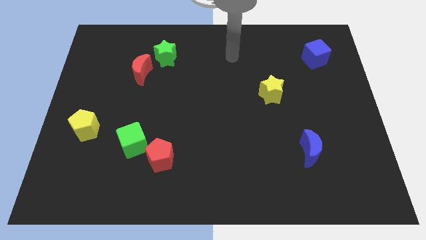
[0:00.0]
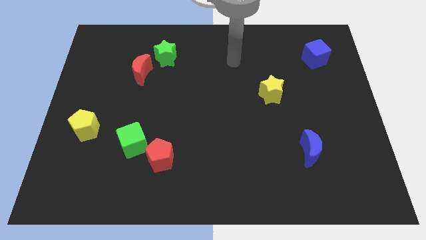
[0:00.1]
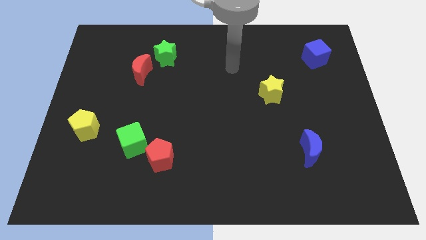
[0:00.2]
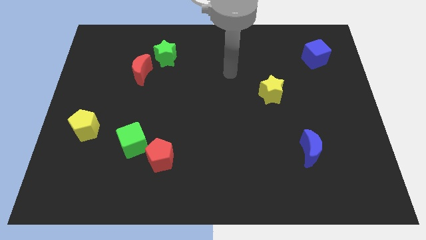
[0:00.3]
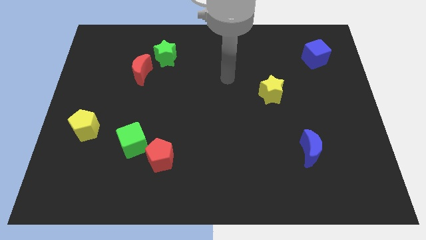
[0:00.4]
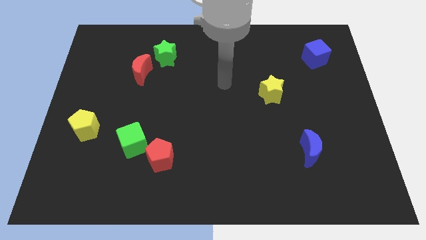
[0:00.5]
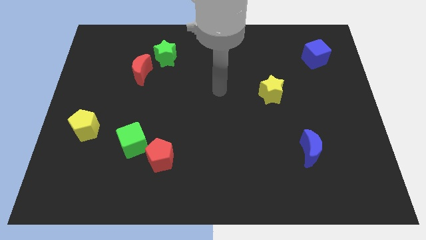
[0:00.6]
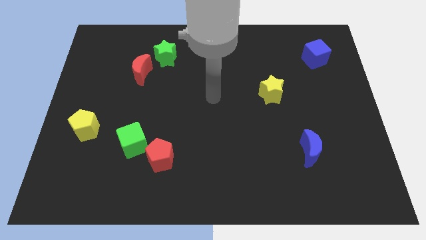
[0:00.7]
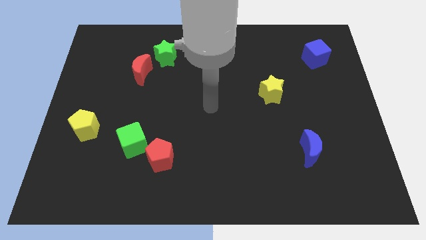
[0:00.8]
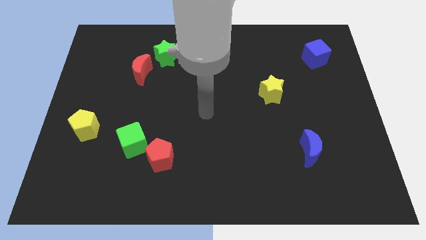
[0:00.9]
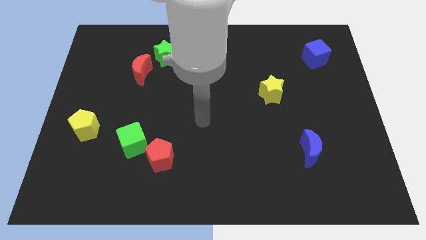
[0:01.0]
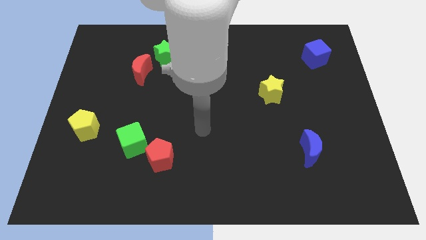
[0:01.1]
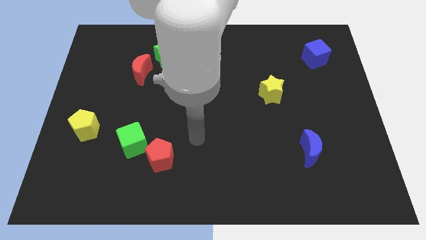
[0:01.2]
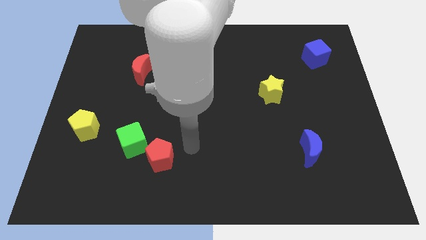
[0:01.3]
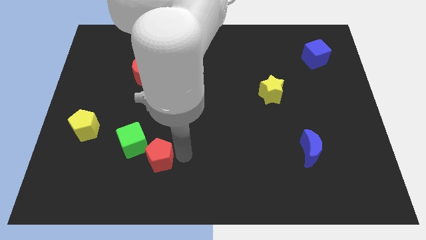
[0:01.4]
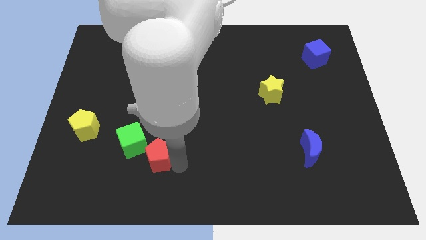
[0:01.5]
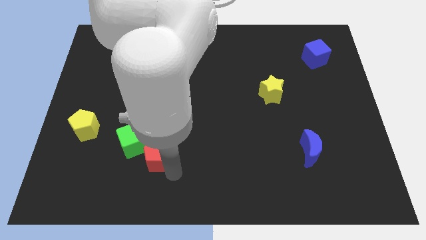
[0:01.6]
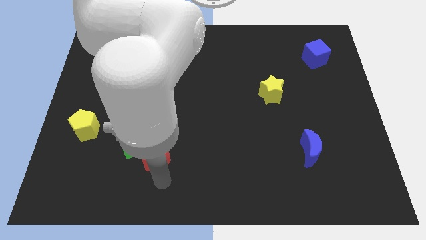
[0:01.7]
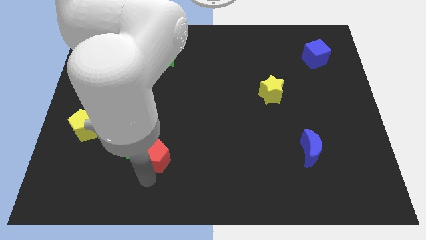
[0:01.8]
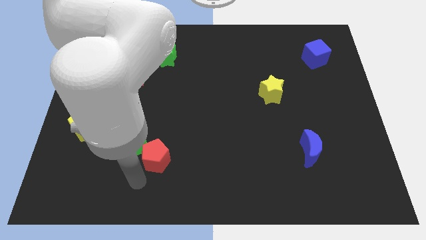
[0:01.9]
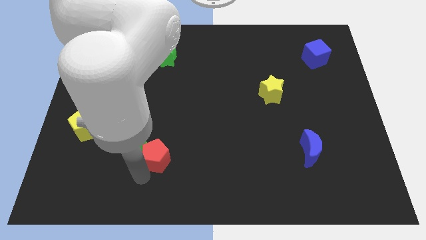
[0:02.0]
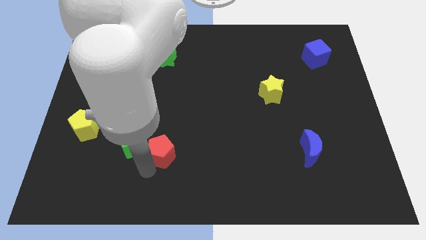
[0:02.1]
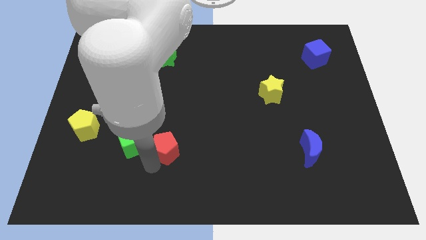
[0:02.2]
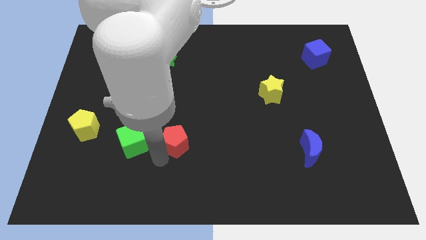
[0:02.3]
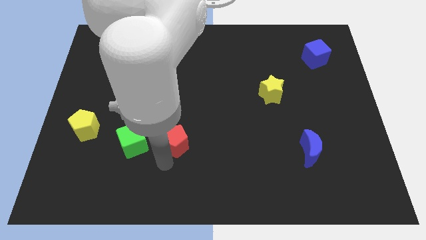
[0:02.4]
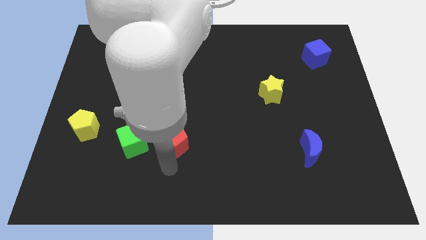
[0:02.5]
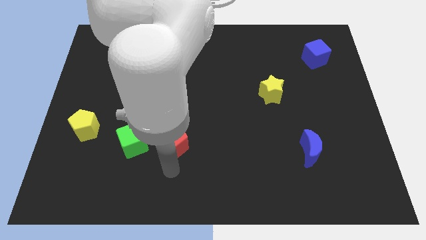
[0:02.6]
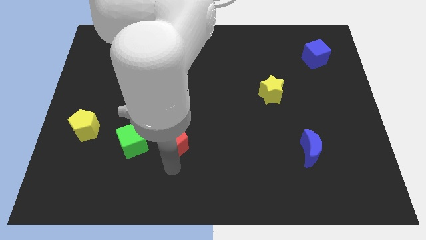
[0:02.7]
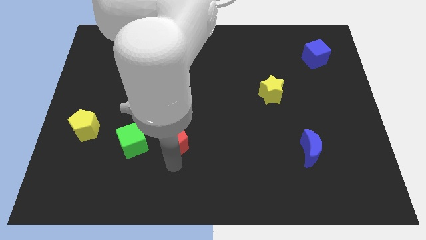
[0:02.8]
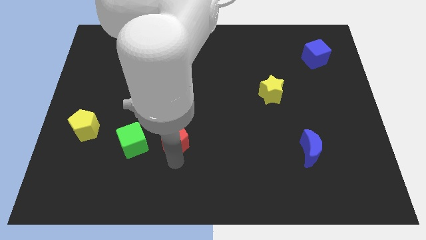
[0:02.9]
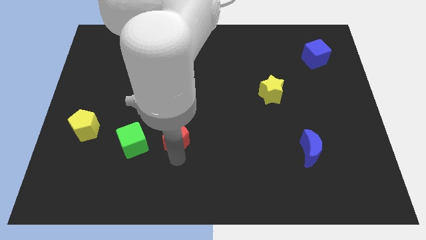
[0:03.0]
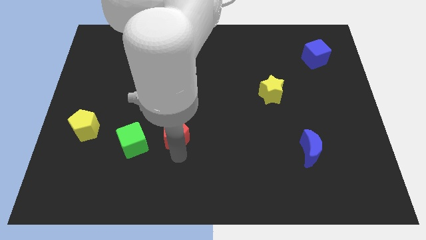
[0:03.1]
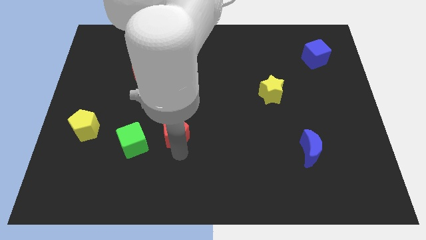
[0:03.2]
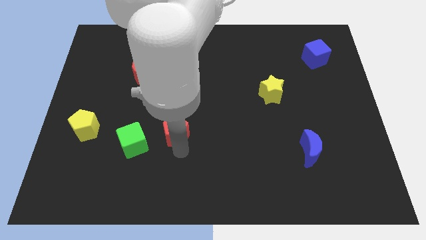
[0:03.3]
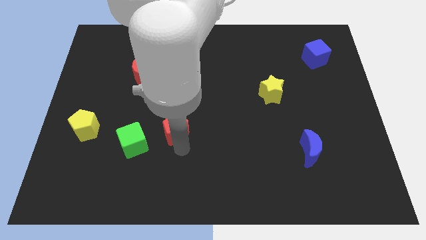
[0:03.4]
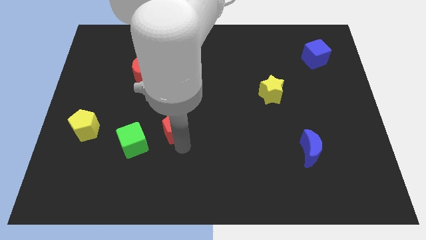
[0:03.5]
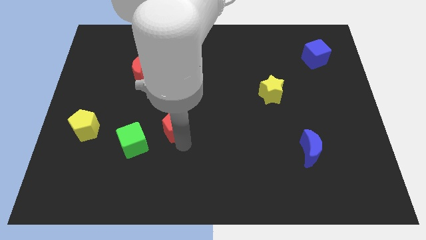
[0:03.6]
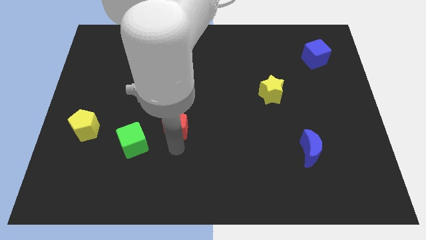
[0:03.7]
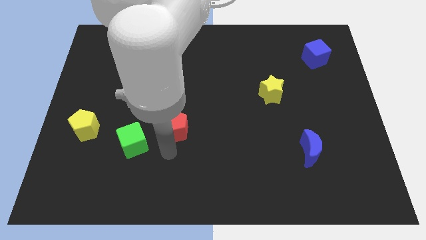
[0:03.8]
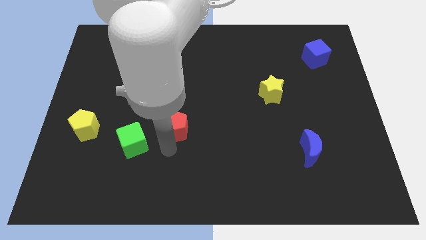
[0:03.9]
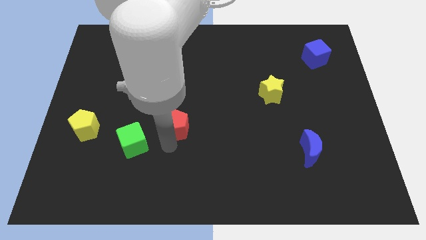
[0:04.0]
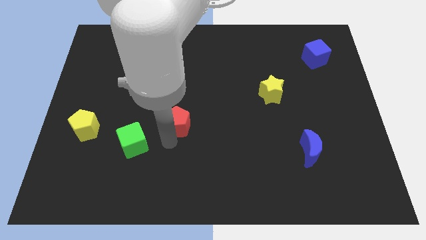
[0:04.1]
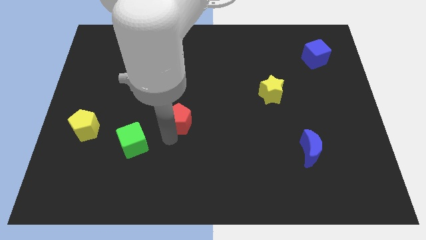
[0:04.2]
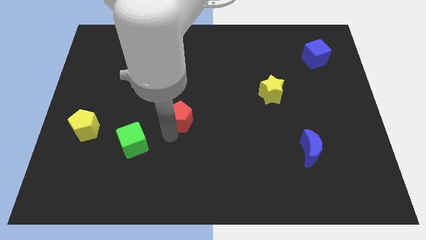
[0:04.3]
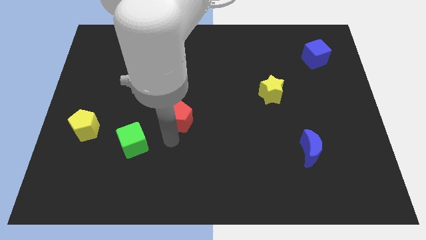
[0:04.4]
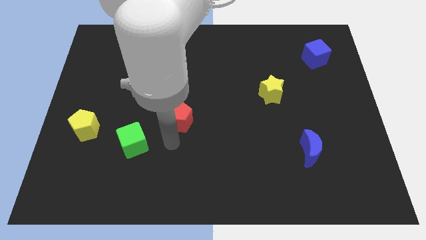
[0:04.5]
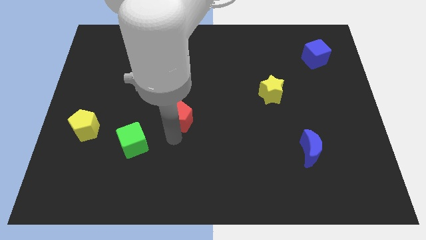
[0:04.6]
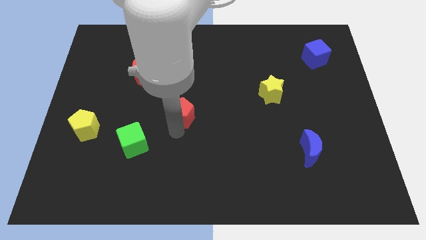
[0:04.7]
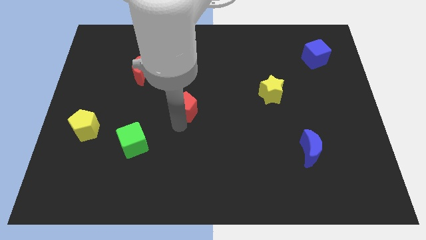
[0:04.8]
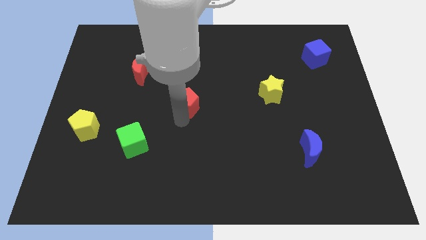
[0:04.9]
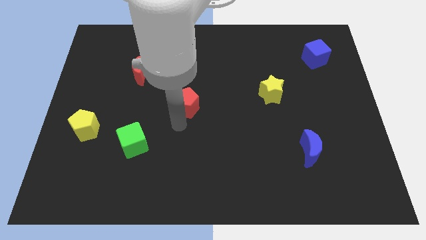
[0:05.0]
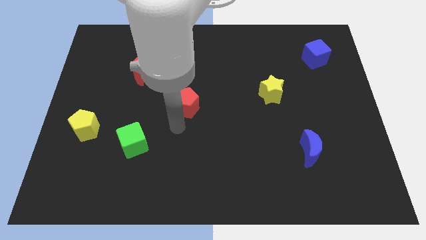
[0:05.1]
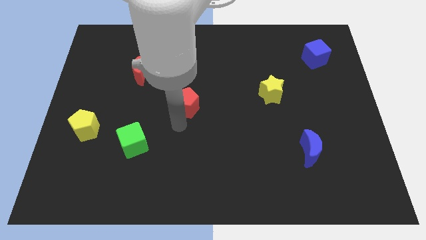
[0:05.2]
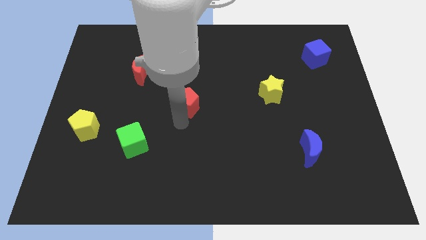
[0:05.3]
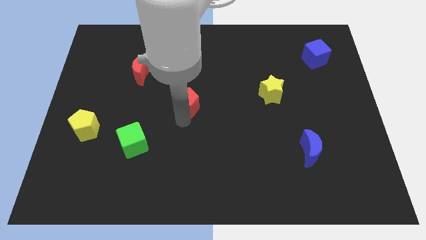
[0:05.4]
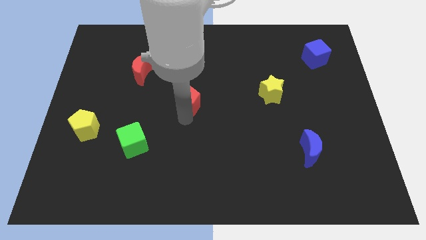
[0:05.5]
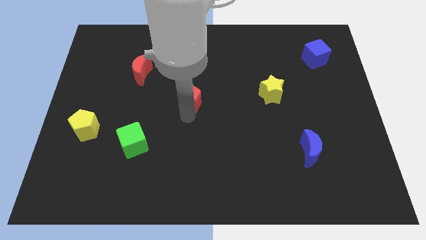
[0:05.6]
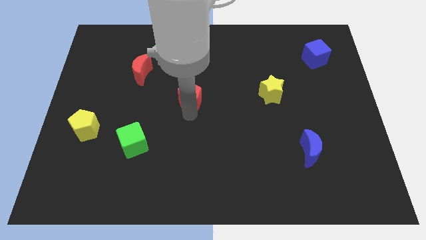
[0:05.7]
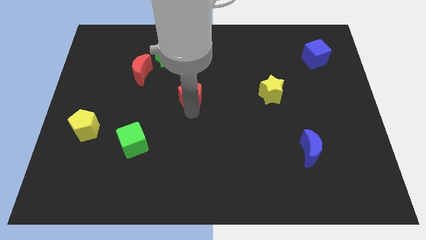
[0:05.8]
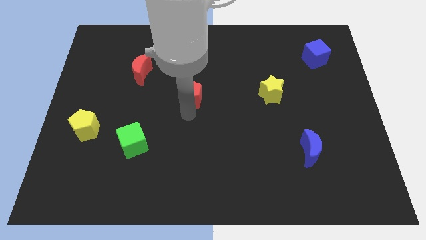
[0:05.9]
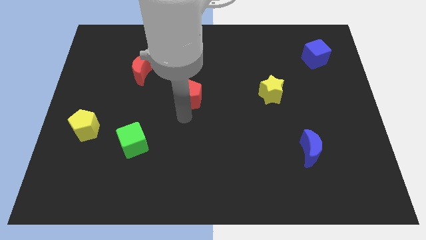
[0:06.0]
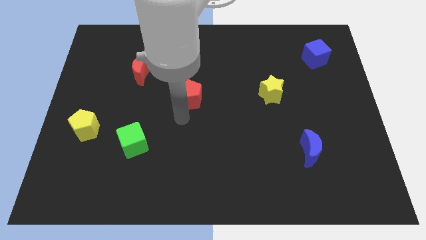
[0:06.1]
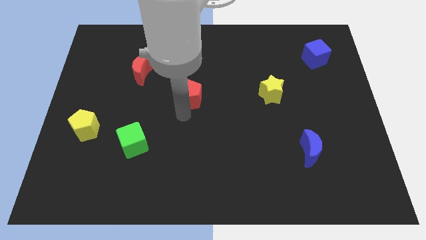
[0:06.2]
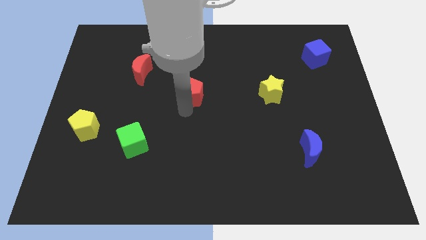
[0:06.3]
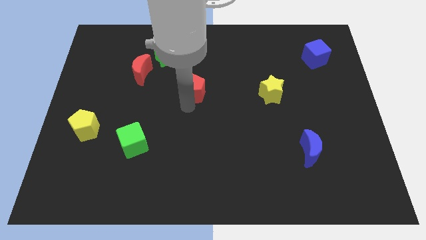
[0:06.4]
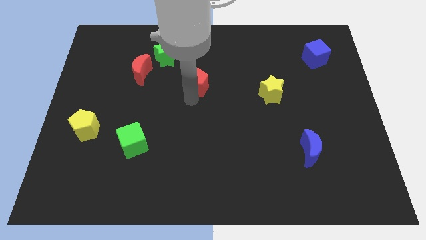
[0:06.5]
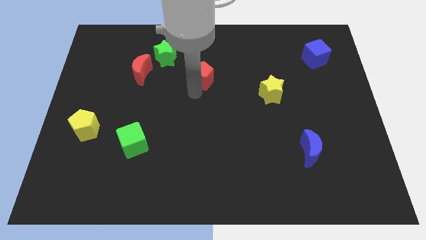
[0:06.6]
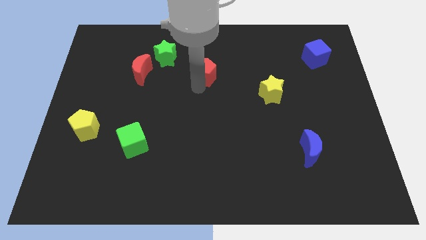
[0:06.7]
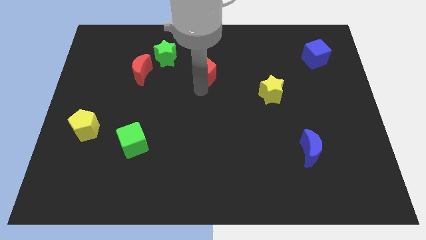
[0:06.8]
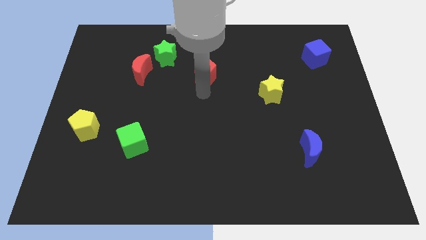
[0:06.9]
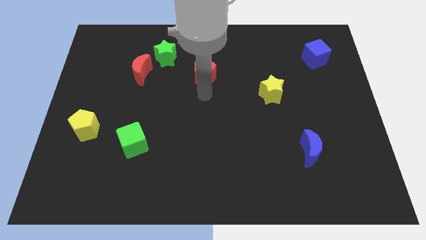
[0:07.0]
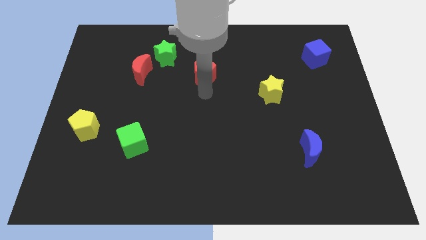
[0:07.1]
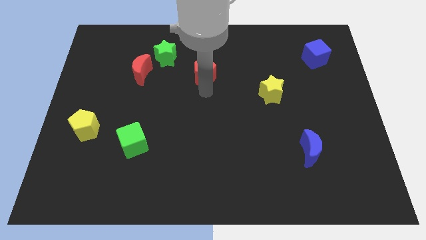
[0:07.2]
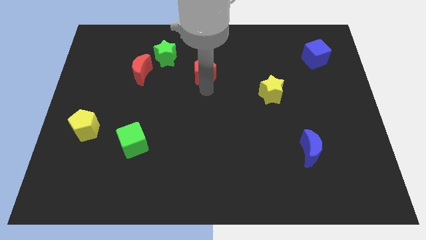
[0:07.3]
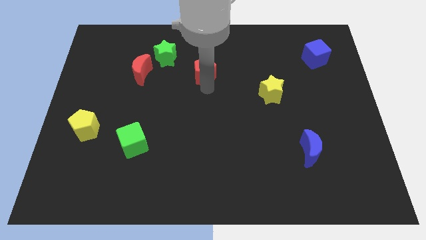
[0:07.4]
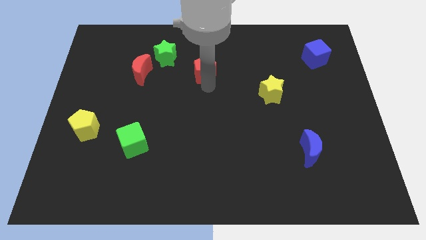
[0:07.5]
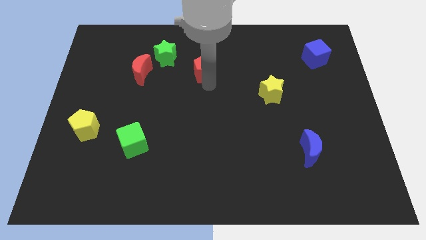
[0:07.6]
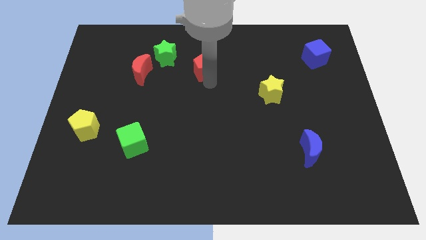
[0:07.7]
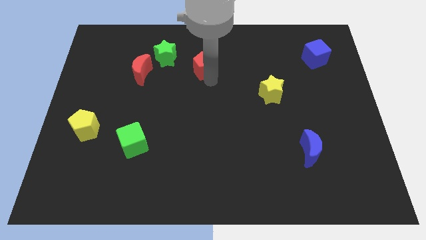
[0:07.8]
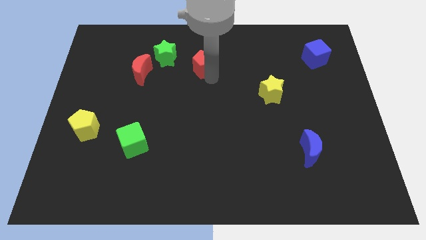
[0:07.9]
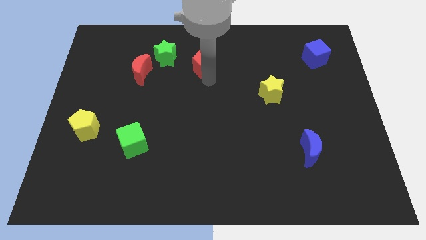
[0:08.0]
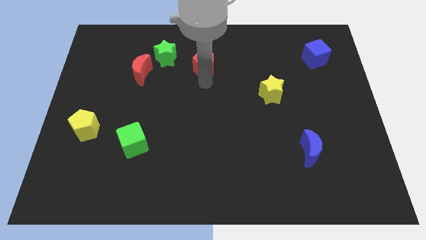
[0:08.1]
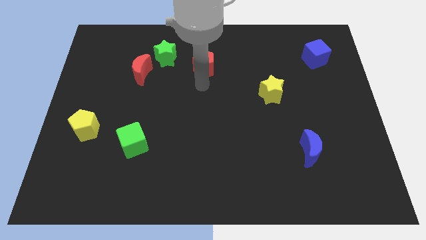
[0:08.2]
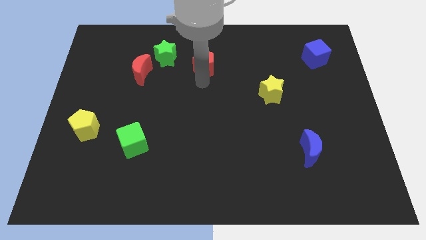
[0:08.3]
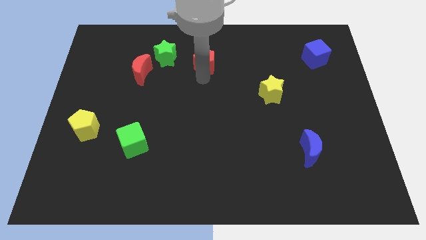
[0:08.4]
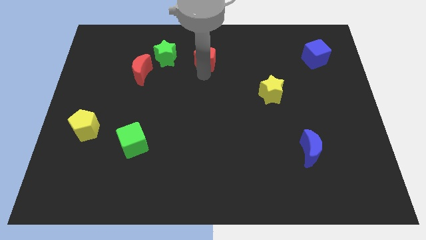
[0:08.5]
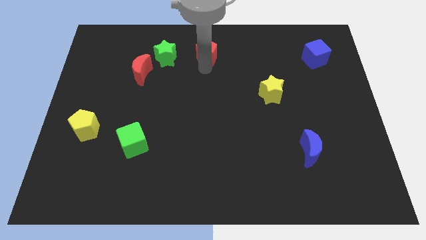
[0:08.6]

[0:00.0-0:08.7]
move the red pentagon to the towards your base
